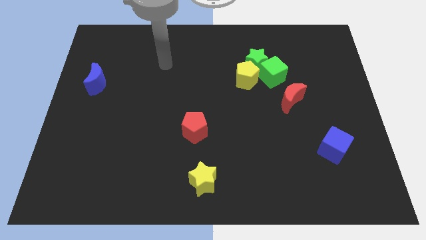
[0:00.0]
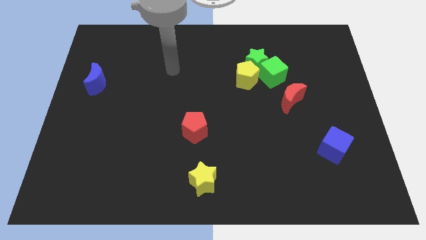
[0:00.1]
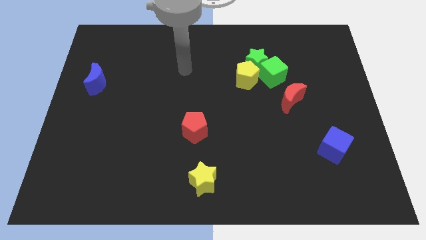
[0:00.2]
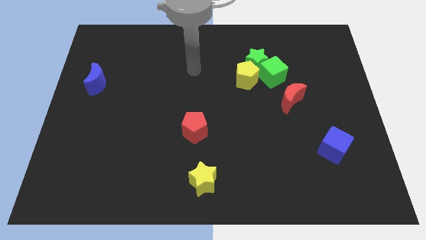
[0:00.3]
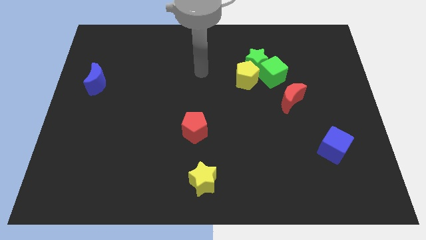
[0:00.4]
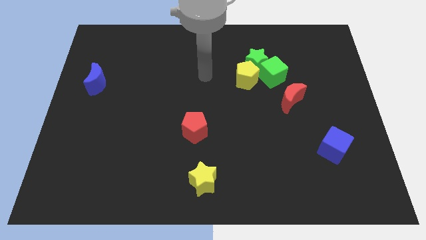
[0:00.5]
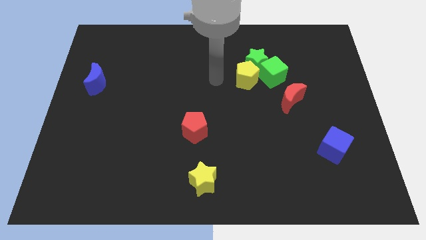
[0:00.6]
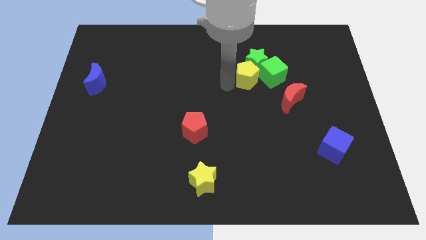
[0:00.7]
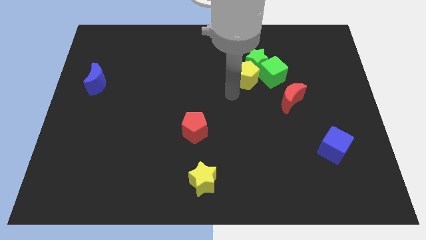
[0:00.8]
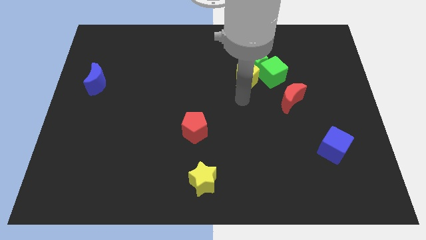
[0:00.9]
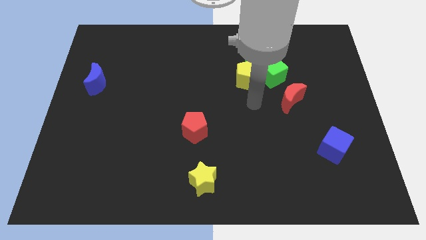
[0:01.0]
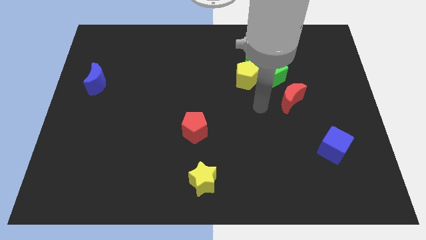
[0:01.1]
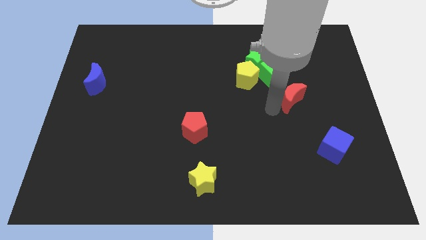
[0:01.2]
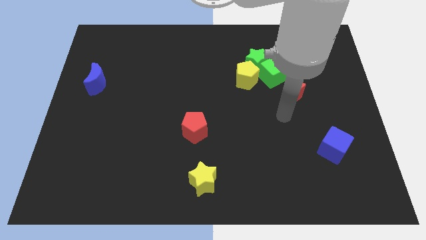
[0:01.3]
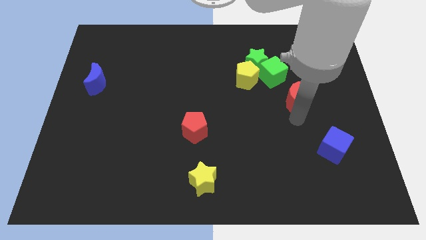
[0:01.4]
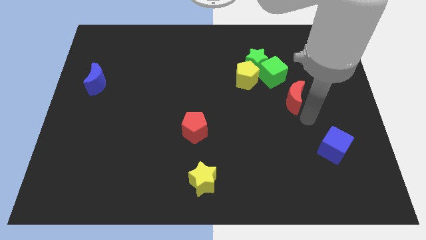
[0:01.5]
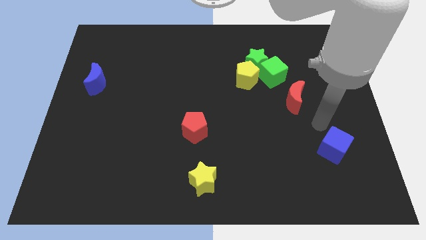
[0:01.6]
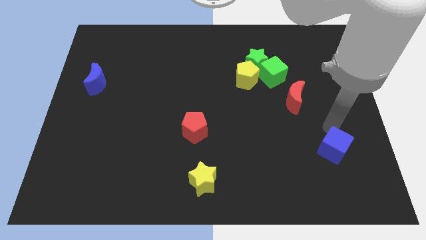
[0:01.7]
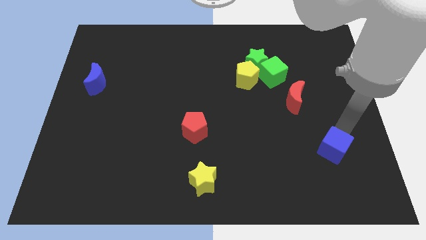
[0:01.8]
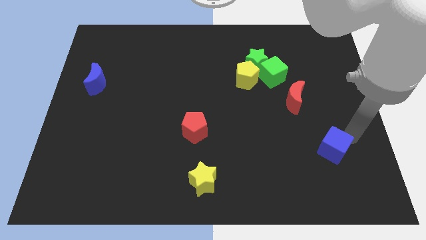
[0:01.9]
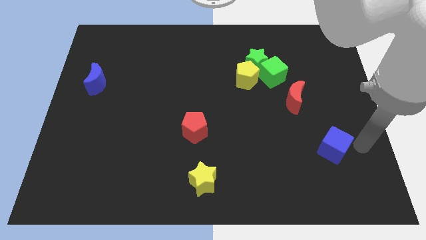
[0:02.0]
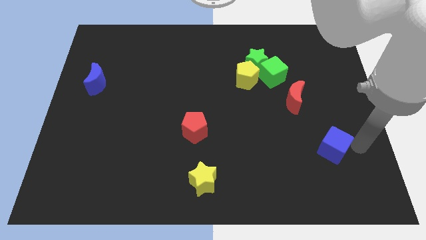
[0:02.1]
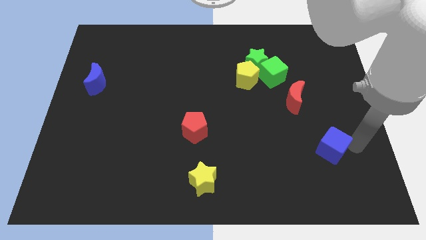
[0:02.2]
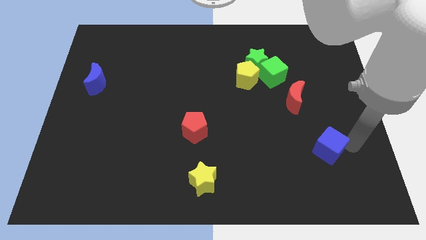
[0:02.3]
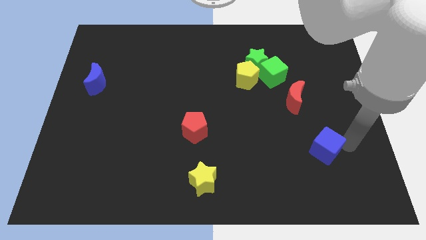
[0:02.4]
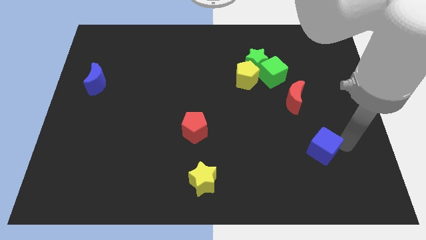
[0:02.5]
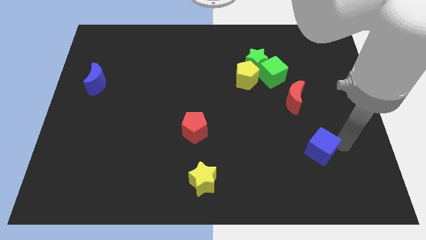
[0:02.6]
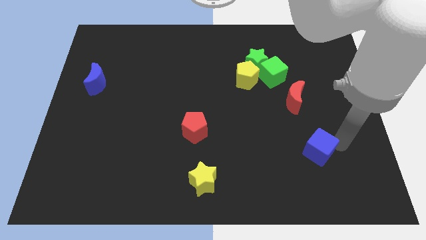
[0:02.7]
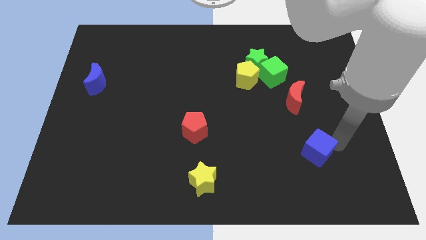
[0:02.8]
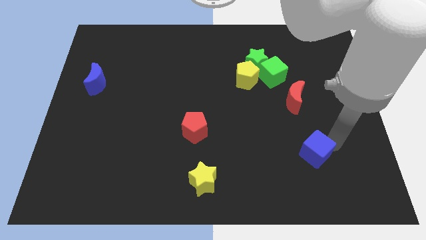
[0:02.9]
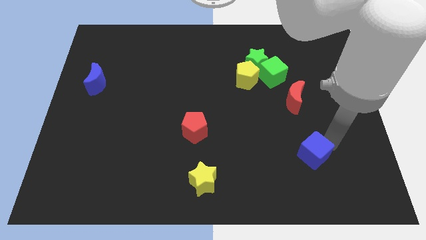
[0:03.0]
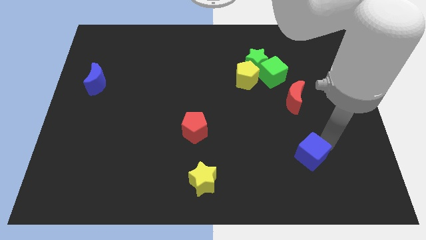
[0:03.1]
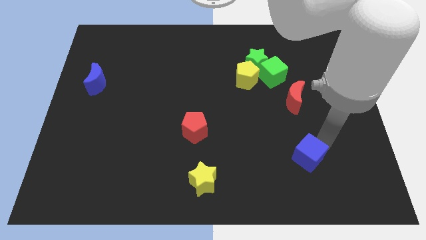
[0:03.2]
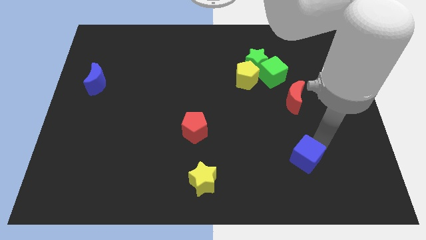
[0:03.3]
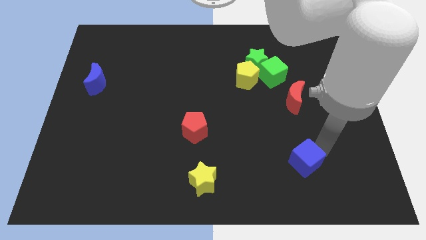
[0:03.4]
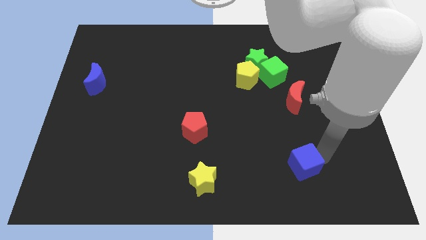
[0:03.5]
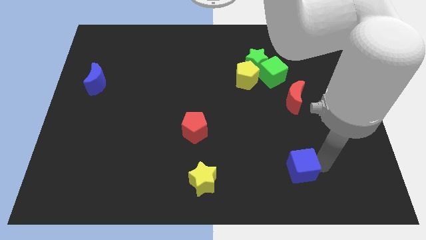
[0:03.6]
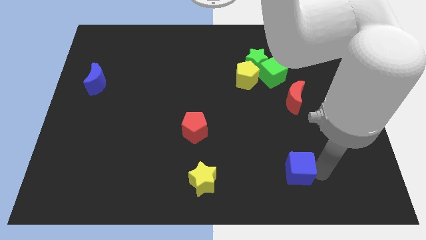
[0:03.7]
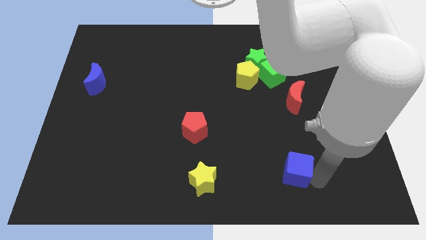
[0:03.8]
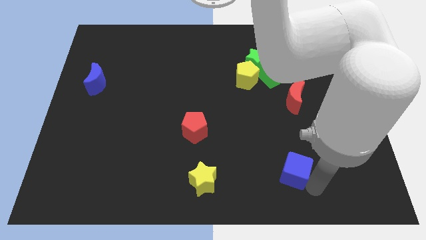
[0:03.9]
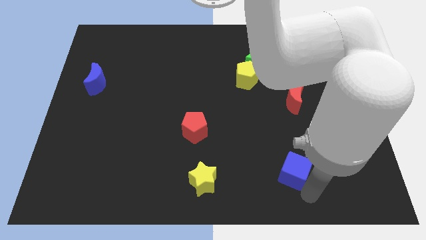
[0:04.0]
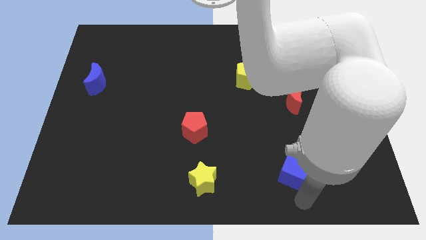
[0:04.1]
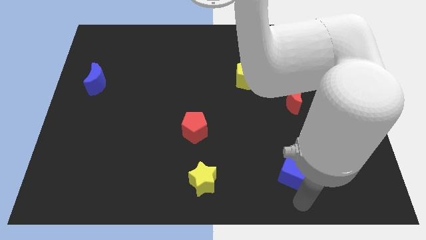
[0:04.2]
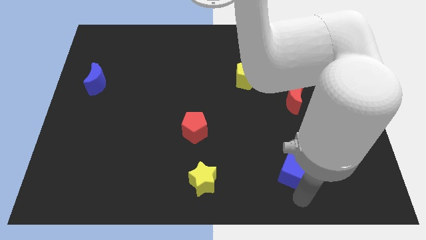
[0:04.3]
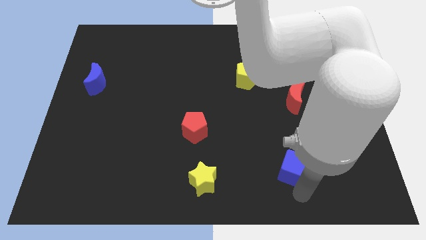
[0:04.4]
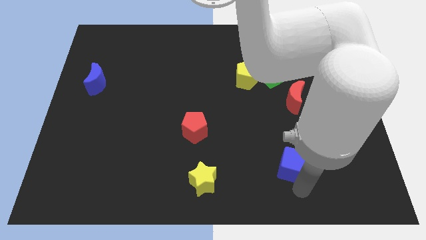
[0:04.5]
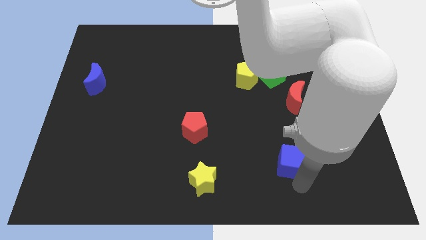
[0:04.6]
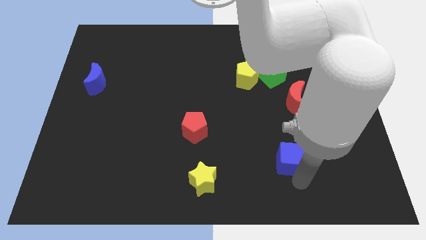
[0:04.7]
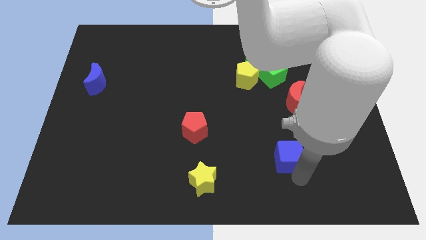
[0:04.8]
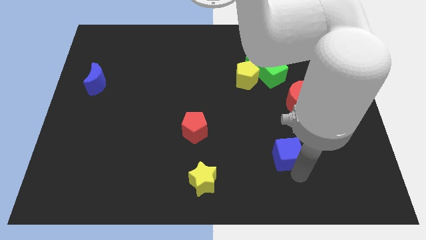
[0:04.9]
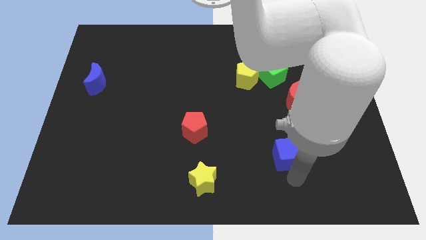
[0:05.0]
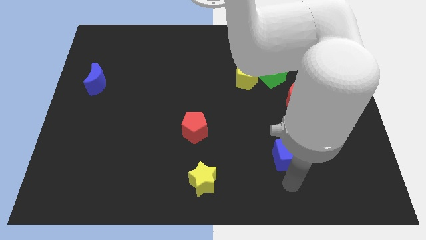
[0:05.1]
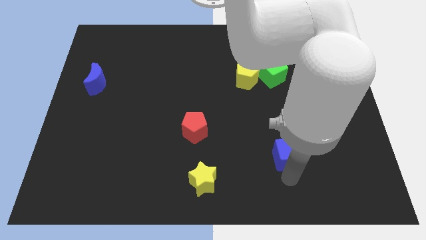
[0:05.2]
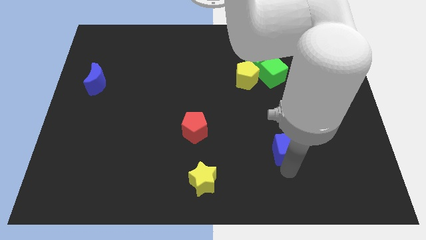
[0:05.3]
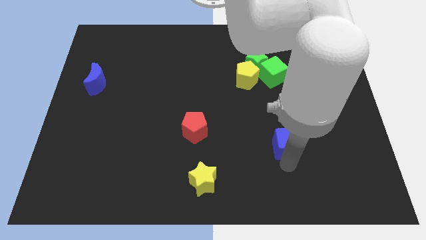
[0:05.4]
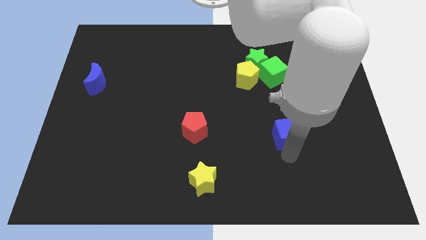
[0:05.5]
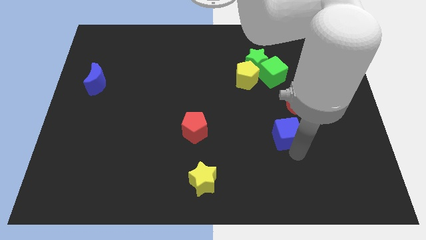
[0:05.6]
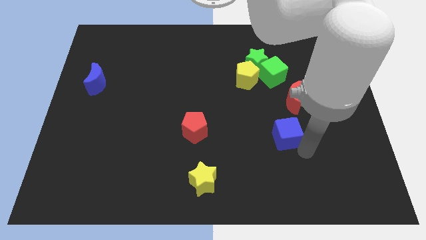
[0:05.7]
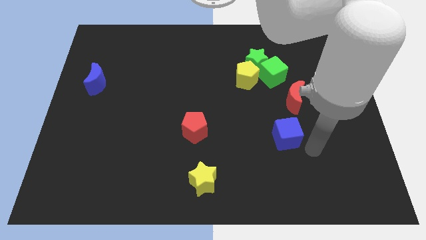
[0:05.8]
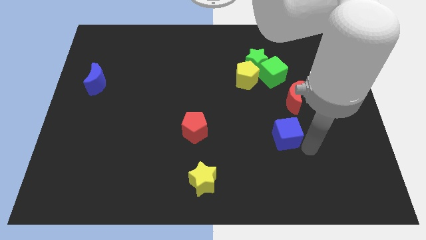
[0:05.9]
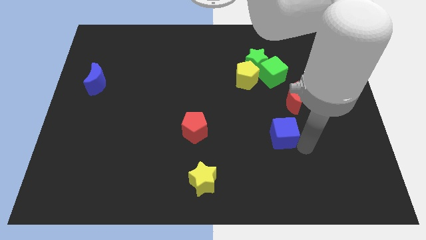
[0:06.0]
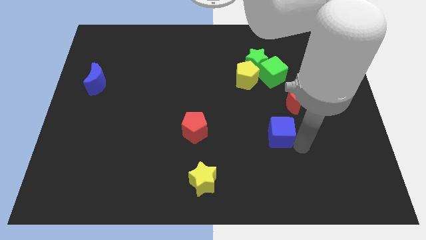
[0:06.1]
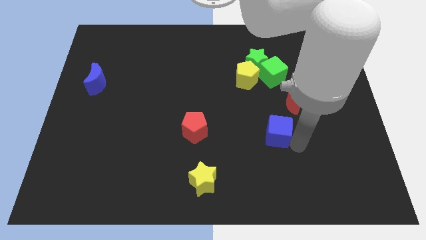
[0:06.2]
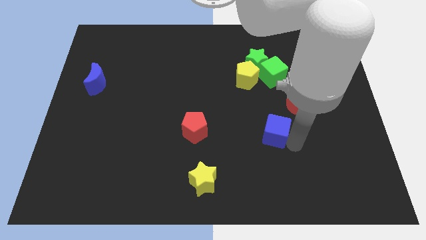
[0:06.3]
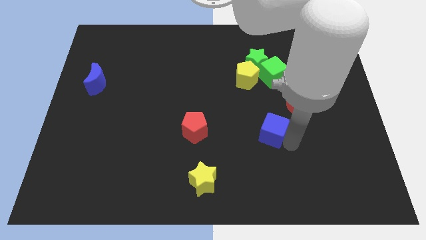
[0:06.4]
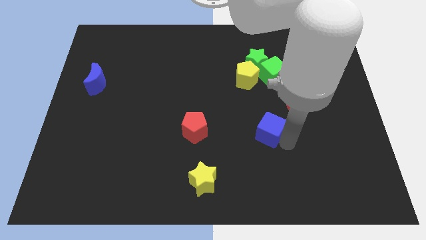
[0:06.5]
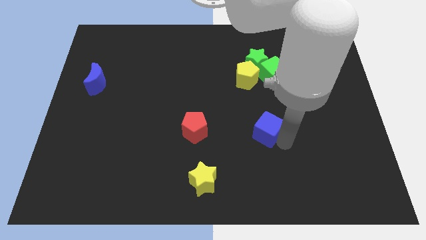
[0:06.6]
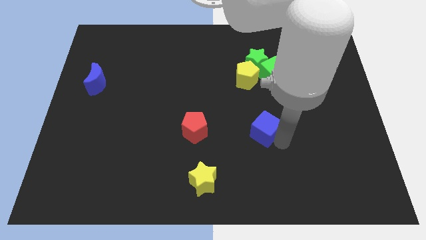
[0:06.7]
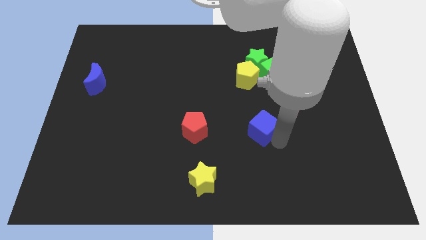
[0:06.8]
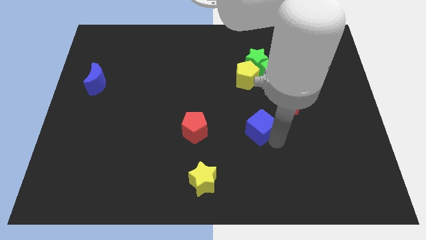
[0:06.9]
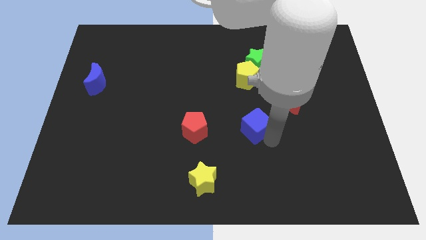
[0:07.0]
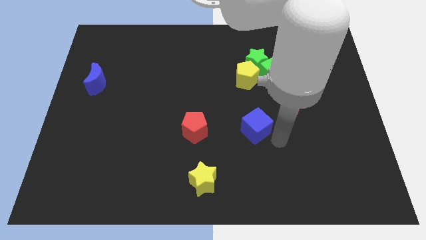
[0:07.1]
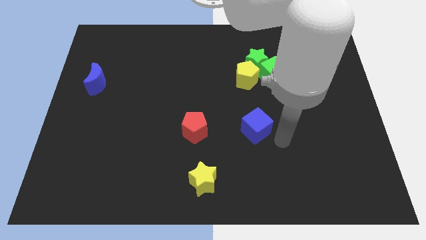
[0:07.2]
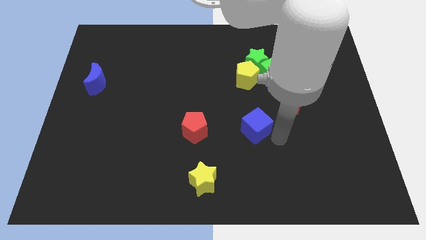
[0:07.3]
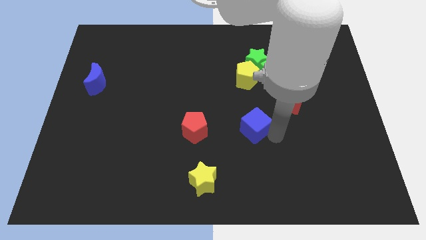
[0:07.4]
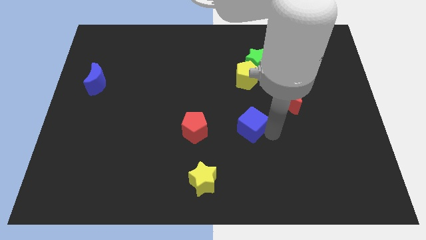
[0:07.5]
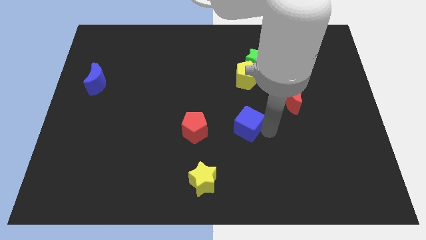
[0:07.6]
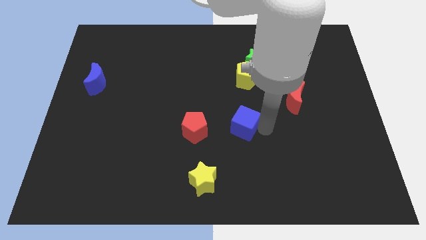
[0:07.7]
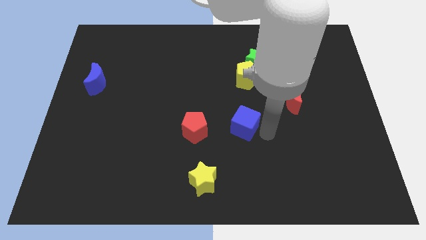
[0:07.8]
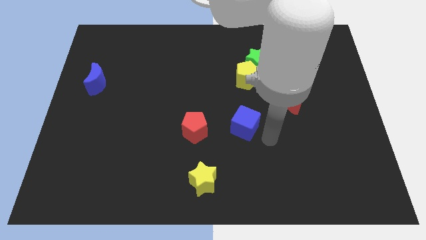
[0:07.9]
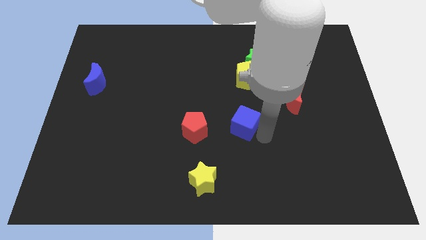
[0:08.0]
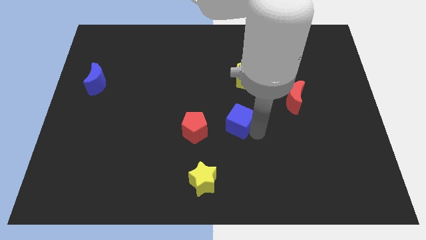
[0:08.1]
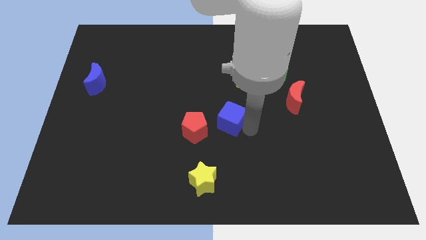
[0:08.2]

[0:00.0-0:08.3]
move the blue cube diagonally up and to the right of the red pentagon
